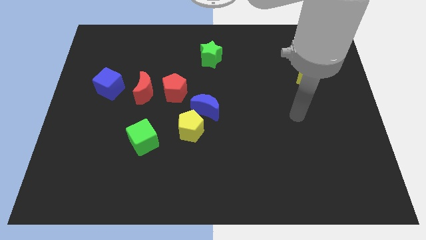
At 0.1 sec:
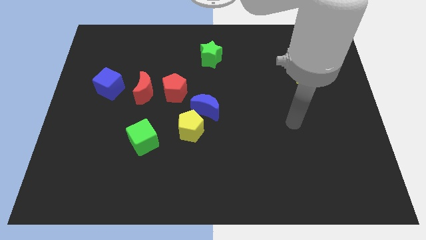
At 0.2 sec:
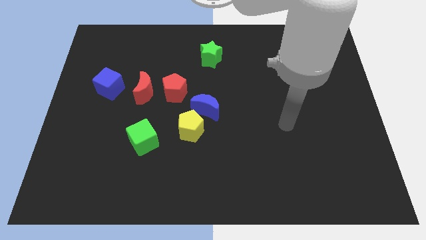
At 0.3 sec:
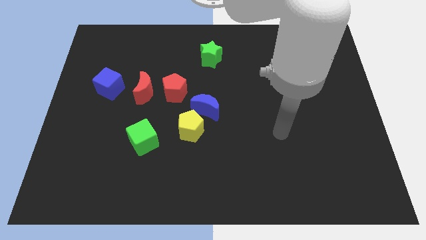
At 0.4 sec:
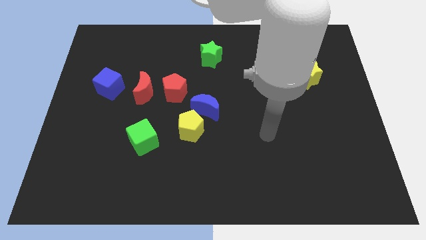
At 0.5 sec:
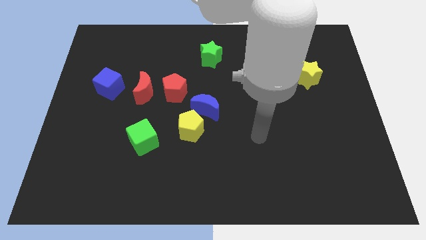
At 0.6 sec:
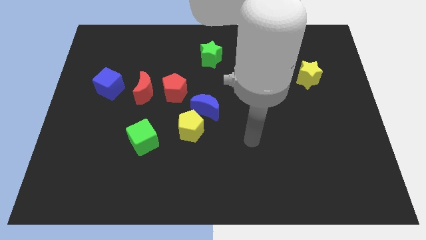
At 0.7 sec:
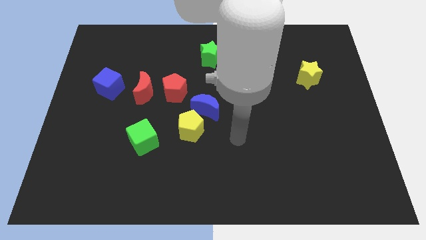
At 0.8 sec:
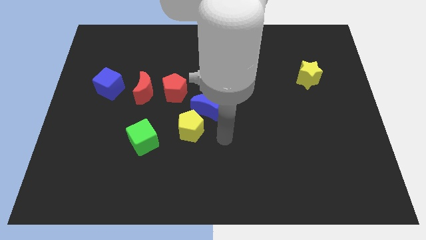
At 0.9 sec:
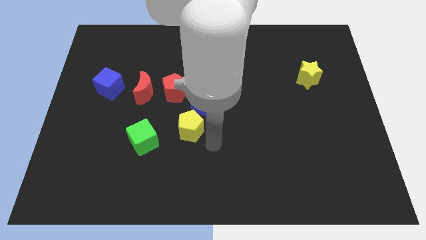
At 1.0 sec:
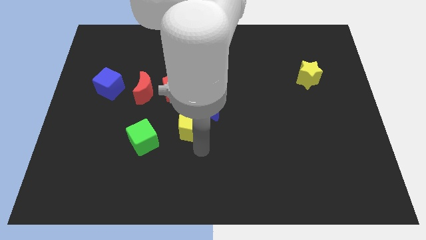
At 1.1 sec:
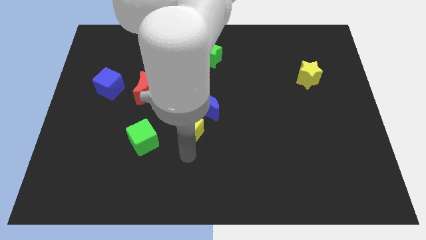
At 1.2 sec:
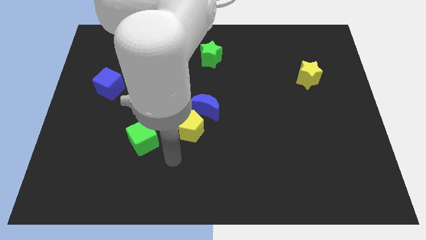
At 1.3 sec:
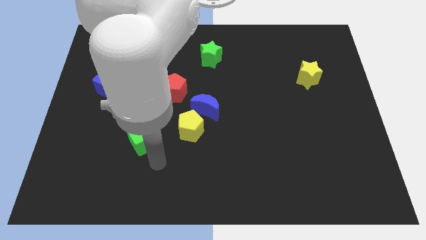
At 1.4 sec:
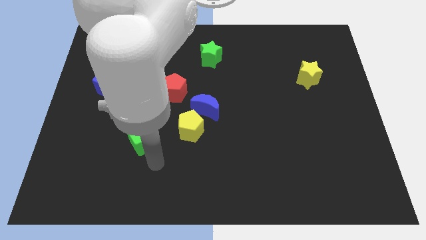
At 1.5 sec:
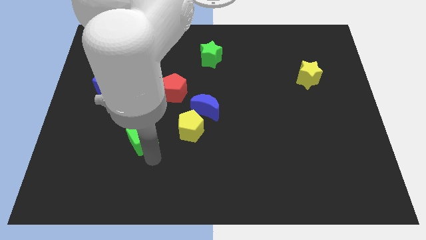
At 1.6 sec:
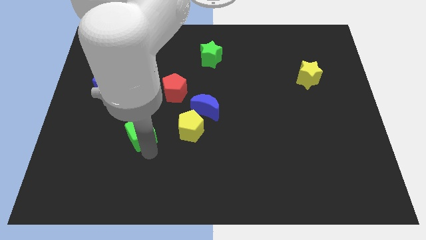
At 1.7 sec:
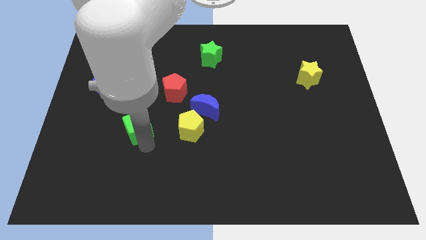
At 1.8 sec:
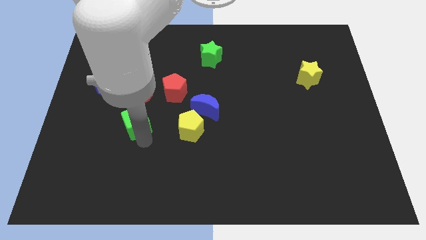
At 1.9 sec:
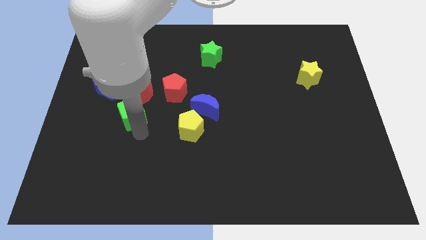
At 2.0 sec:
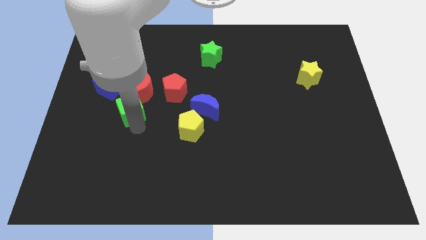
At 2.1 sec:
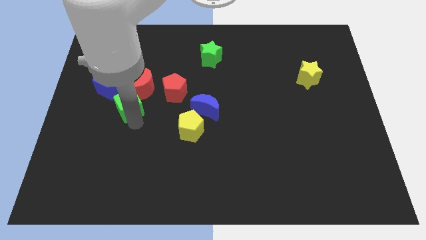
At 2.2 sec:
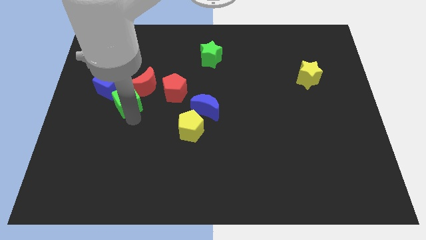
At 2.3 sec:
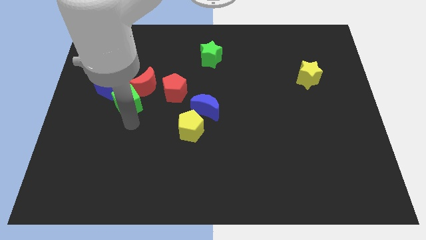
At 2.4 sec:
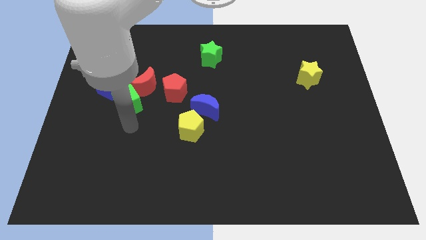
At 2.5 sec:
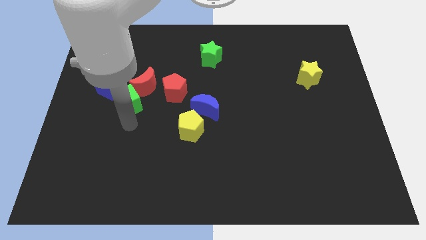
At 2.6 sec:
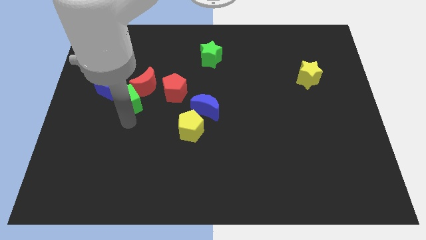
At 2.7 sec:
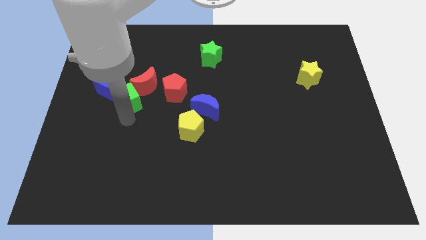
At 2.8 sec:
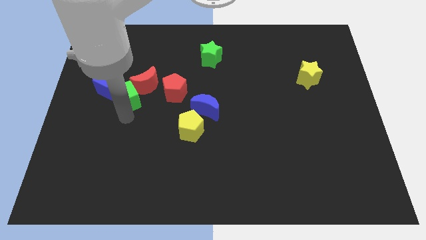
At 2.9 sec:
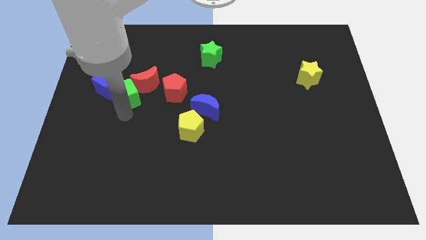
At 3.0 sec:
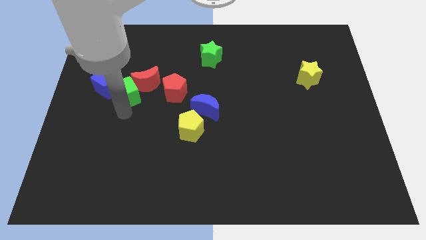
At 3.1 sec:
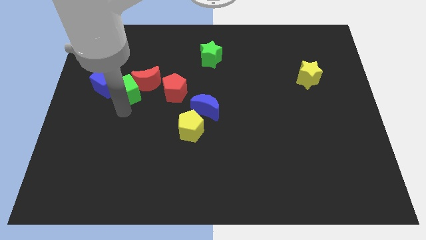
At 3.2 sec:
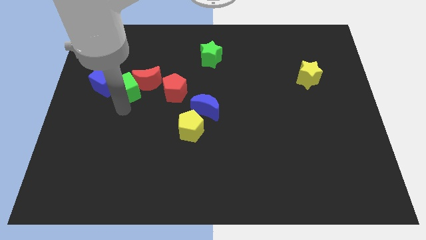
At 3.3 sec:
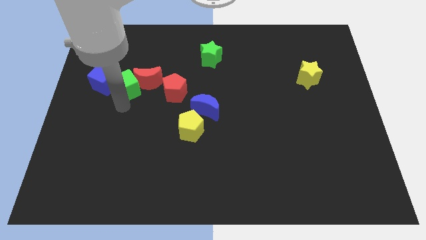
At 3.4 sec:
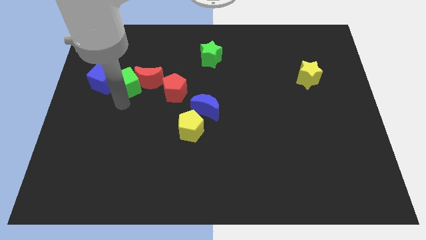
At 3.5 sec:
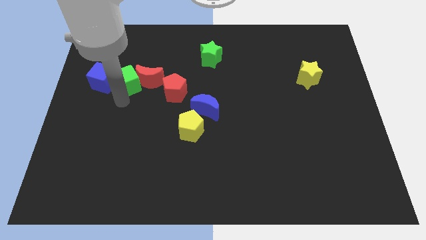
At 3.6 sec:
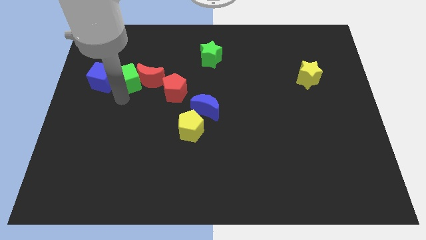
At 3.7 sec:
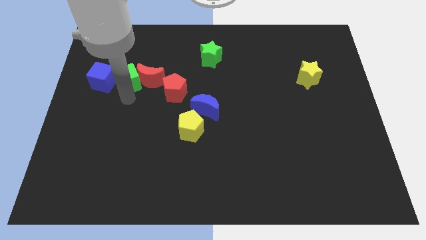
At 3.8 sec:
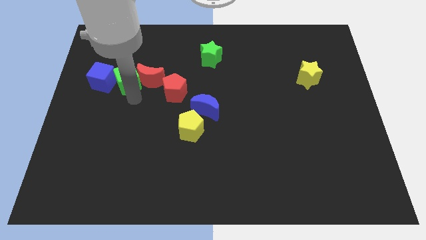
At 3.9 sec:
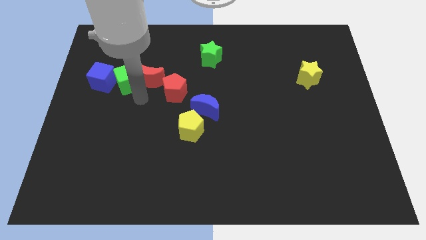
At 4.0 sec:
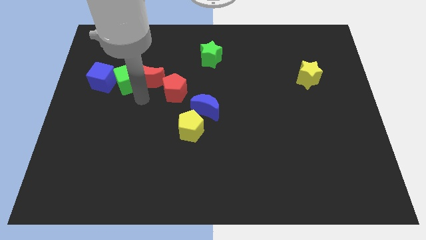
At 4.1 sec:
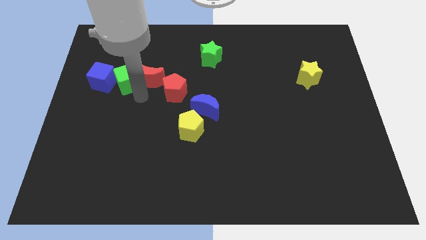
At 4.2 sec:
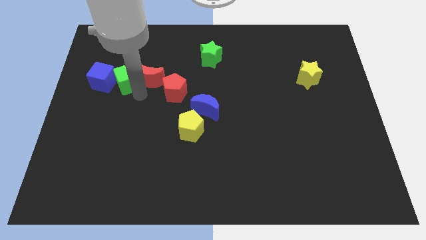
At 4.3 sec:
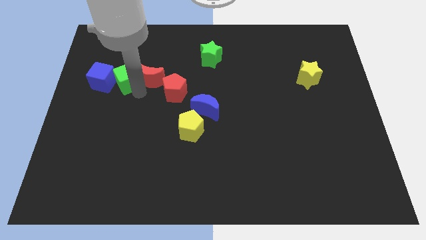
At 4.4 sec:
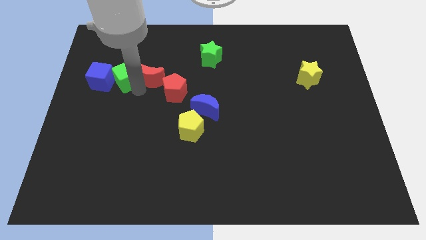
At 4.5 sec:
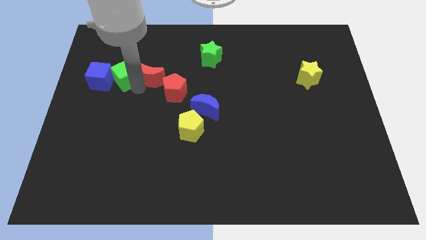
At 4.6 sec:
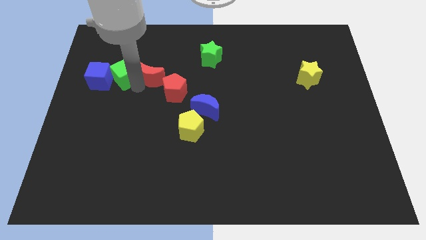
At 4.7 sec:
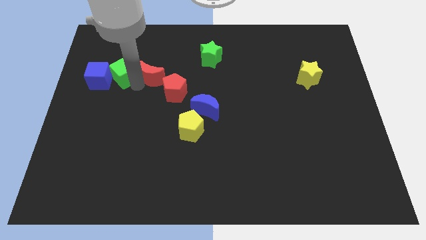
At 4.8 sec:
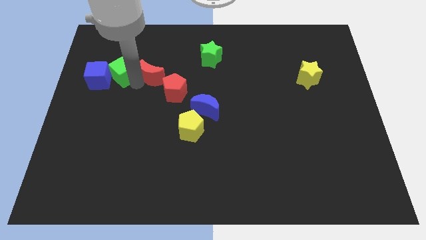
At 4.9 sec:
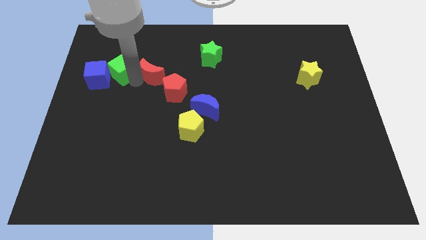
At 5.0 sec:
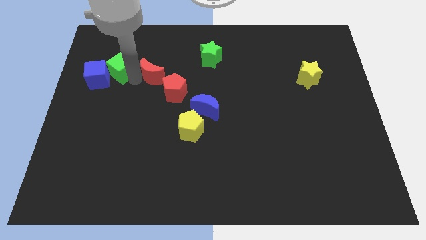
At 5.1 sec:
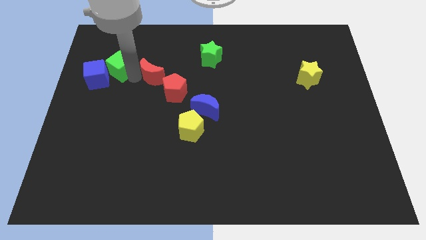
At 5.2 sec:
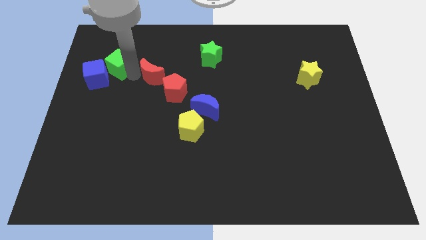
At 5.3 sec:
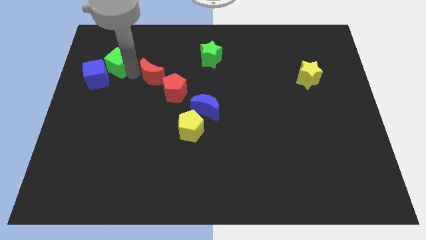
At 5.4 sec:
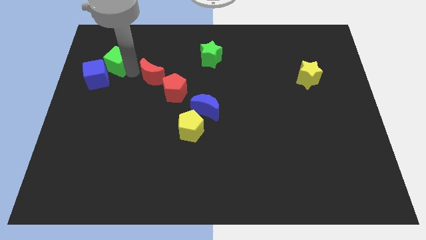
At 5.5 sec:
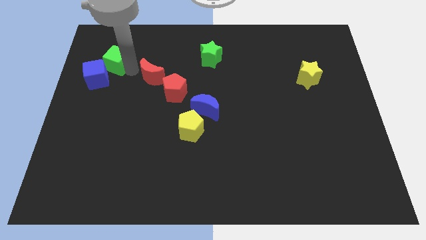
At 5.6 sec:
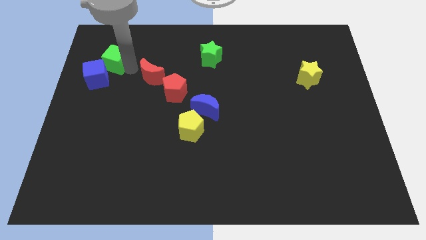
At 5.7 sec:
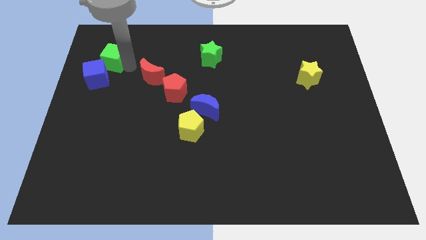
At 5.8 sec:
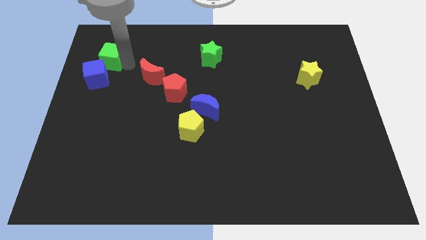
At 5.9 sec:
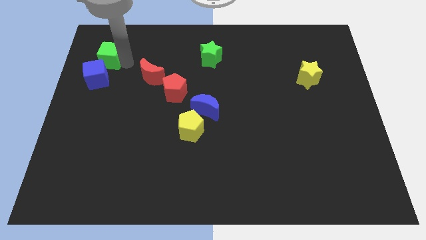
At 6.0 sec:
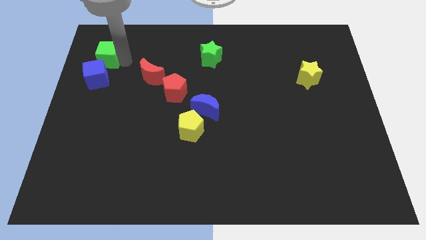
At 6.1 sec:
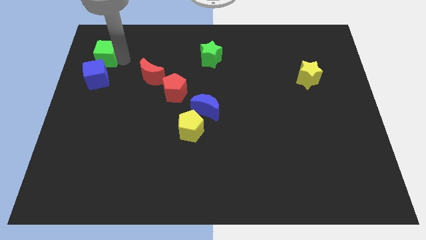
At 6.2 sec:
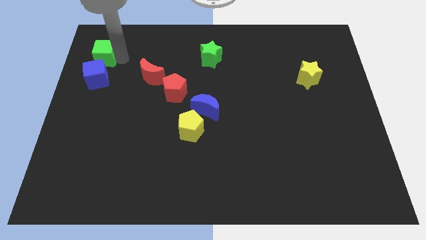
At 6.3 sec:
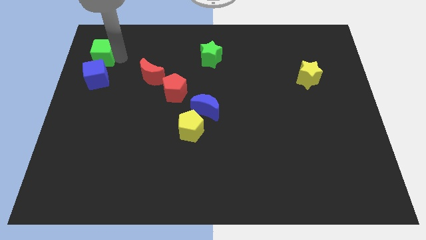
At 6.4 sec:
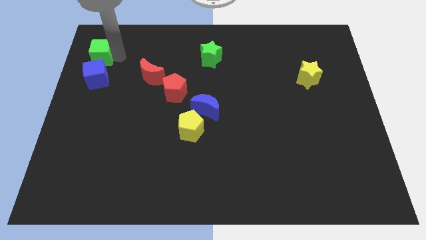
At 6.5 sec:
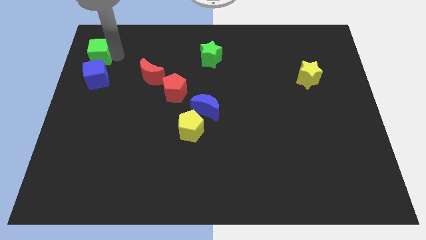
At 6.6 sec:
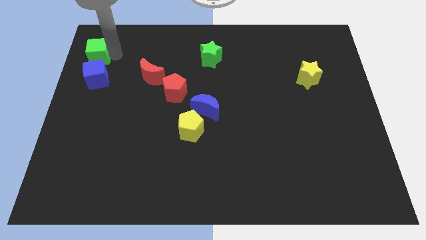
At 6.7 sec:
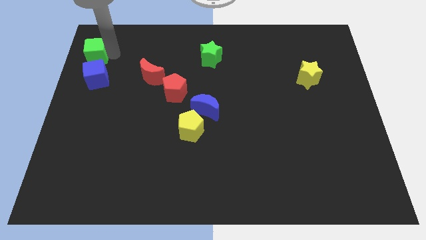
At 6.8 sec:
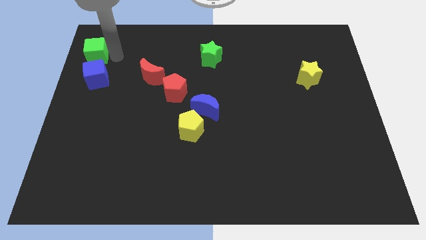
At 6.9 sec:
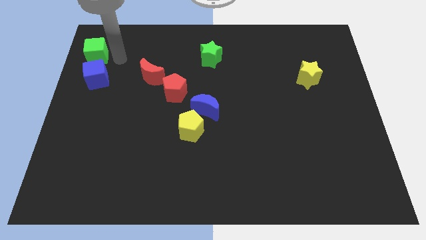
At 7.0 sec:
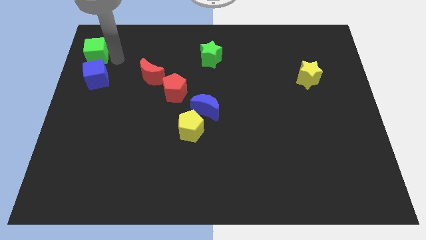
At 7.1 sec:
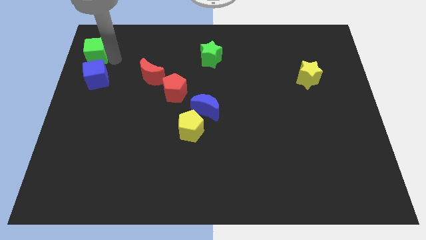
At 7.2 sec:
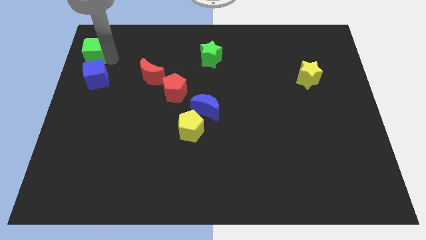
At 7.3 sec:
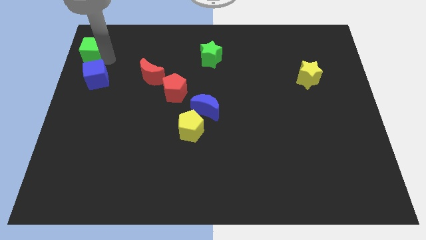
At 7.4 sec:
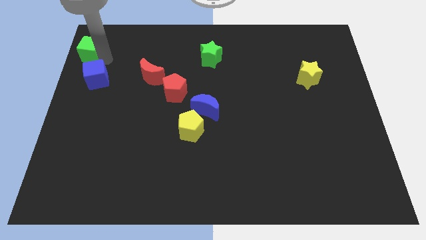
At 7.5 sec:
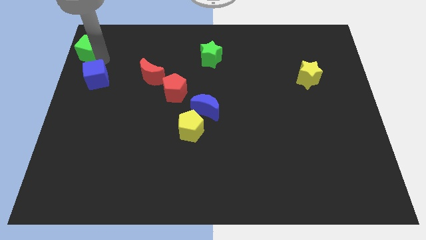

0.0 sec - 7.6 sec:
put the green cube to the top left corner

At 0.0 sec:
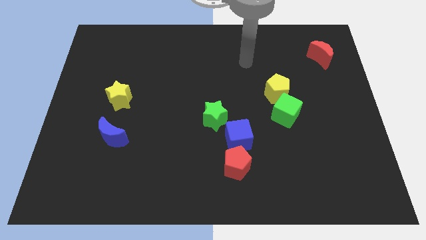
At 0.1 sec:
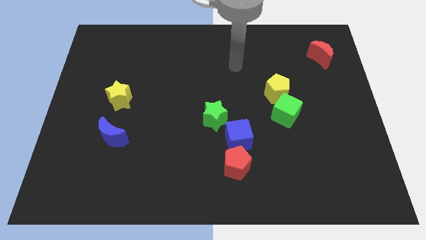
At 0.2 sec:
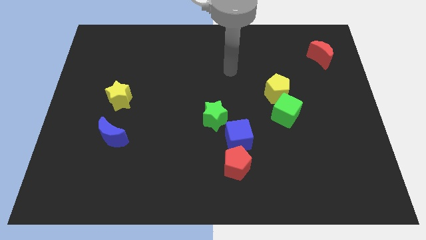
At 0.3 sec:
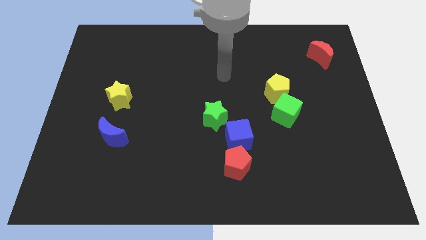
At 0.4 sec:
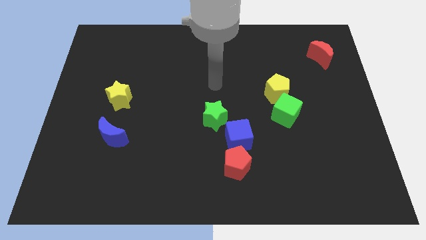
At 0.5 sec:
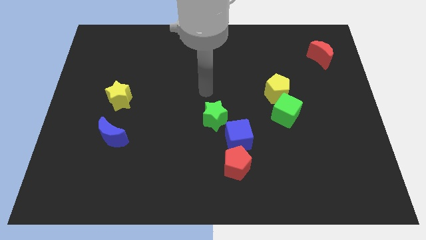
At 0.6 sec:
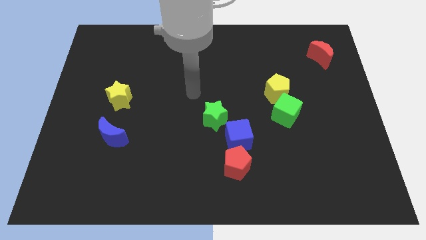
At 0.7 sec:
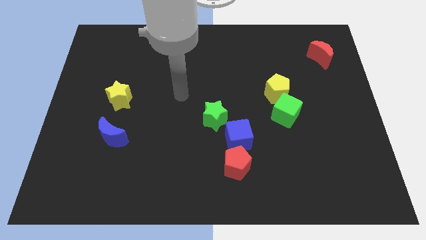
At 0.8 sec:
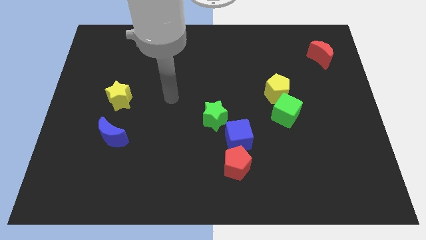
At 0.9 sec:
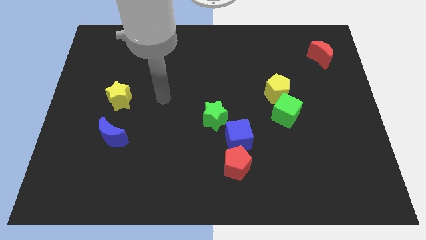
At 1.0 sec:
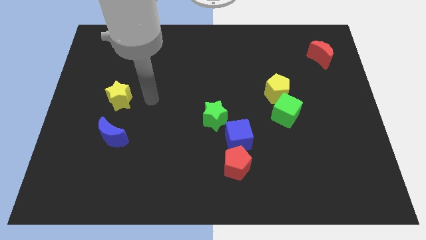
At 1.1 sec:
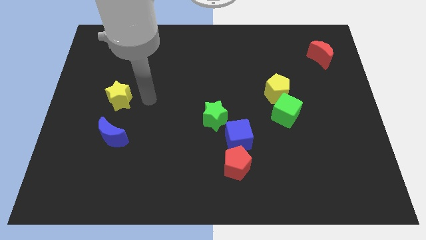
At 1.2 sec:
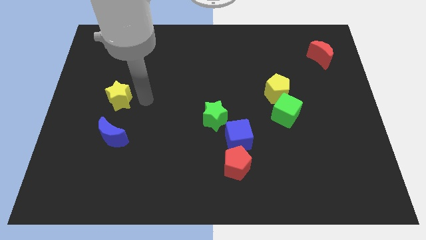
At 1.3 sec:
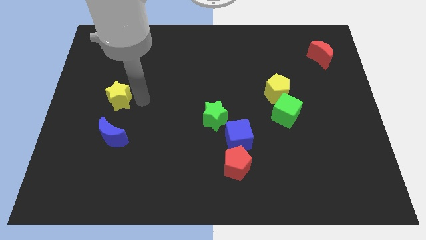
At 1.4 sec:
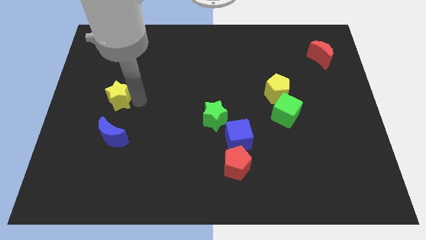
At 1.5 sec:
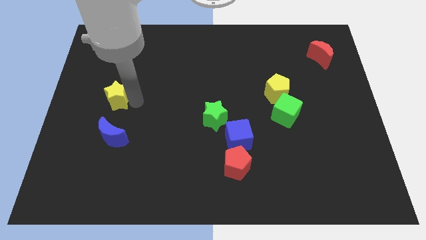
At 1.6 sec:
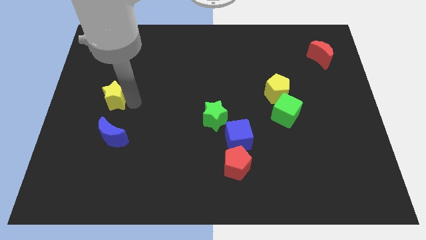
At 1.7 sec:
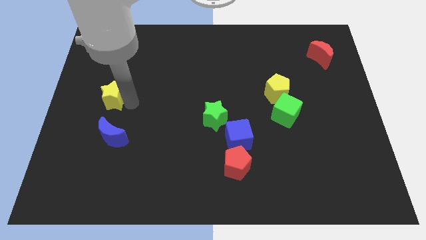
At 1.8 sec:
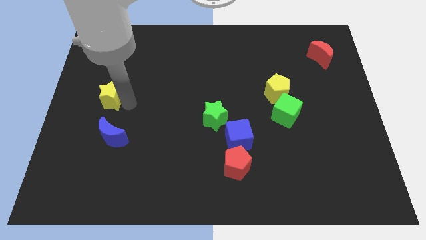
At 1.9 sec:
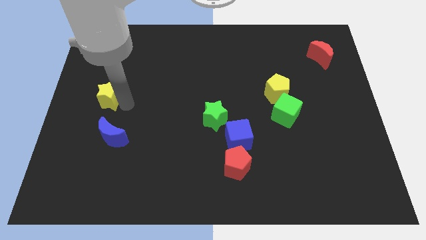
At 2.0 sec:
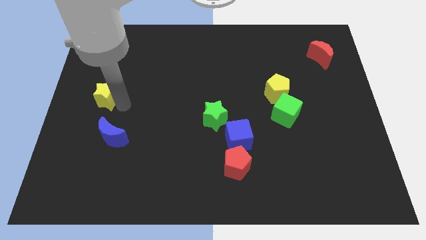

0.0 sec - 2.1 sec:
slide the yellow star to the center left
